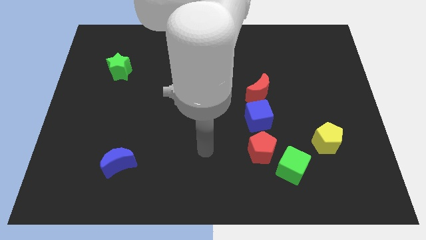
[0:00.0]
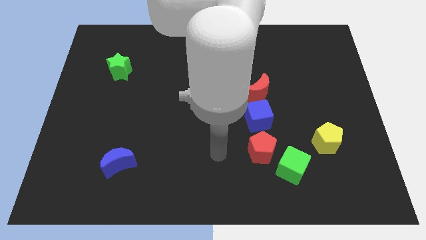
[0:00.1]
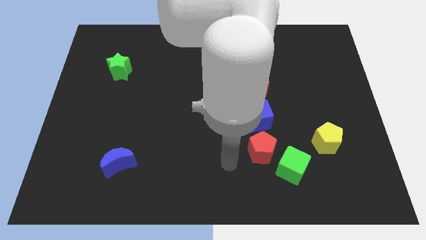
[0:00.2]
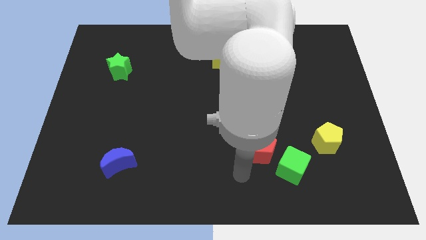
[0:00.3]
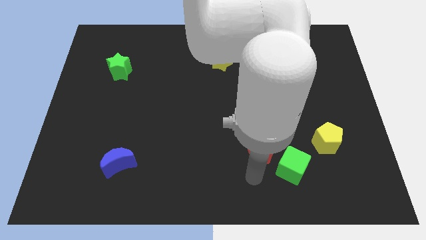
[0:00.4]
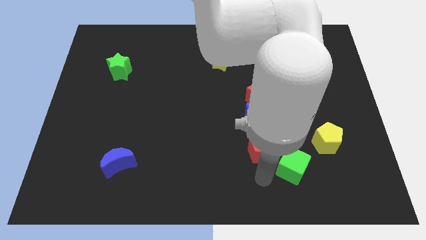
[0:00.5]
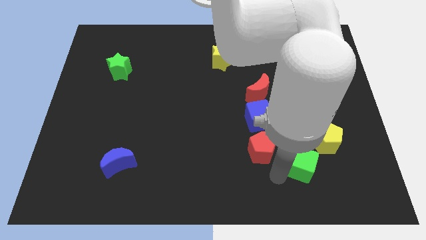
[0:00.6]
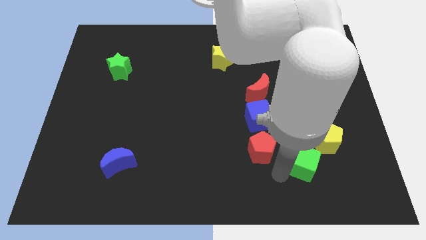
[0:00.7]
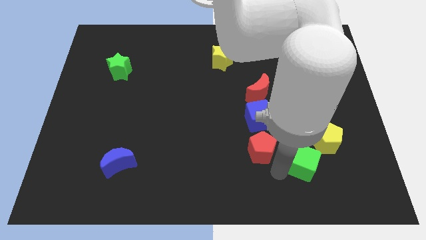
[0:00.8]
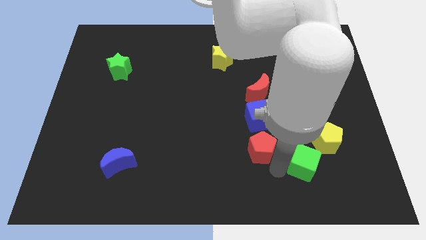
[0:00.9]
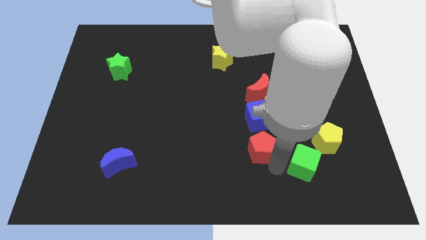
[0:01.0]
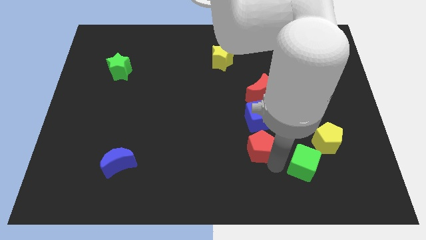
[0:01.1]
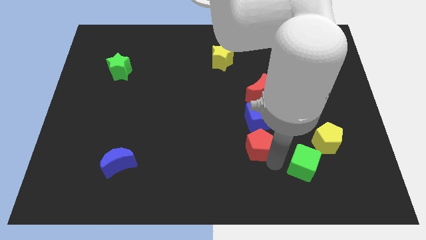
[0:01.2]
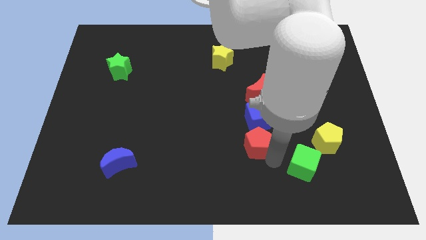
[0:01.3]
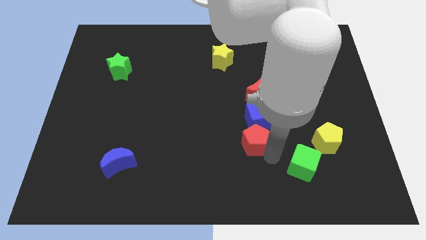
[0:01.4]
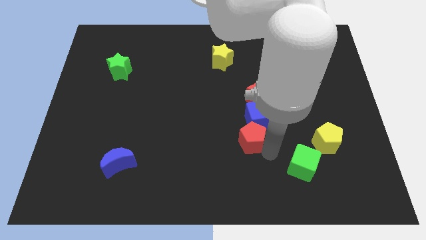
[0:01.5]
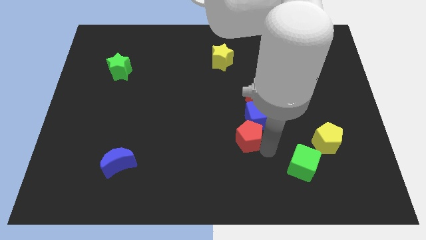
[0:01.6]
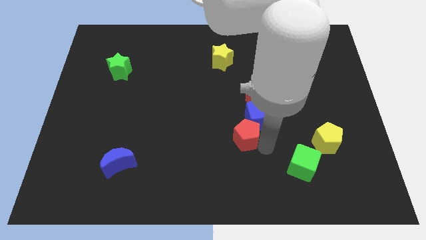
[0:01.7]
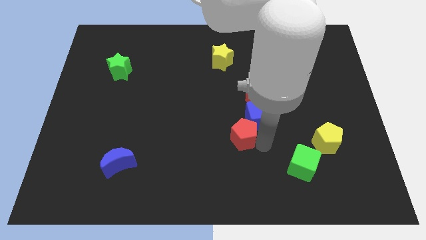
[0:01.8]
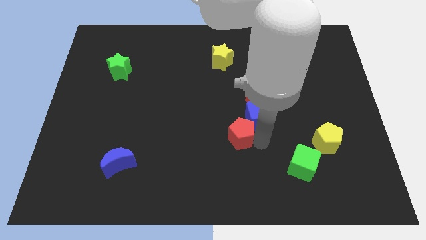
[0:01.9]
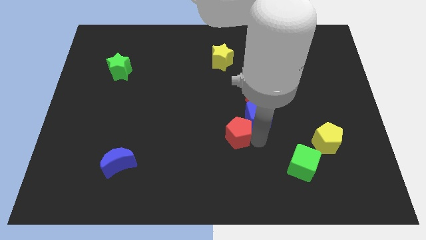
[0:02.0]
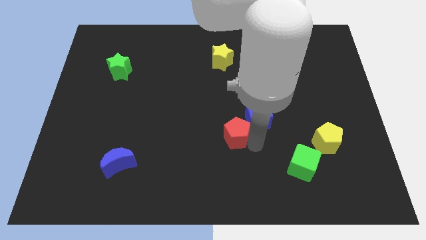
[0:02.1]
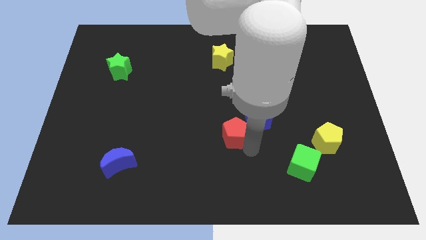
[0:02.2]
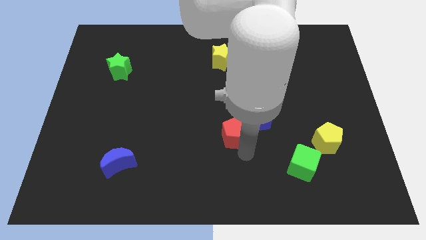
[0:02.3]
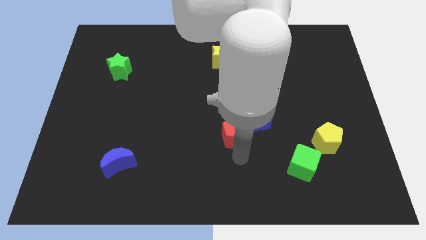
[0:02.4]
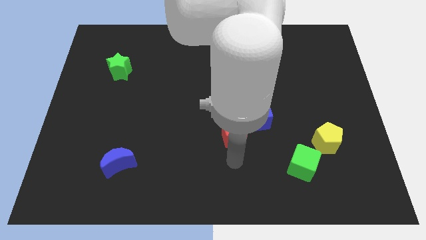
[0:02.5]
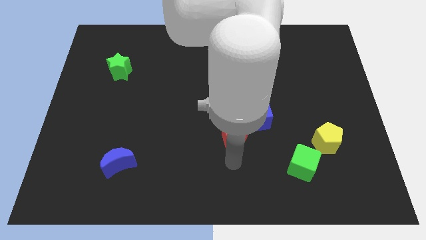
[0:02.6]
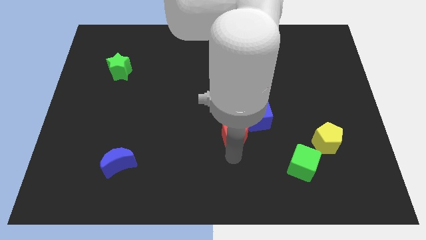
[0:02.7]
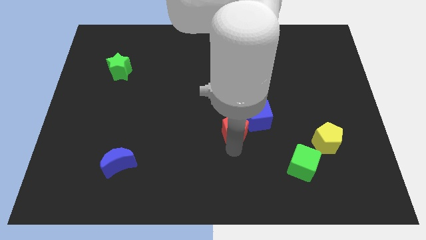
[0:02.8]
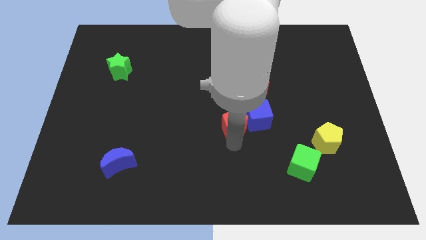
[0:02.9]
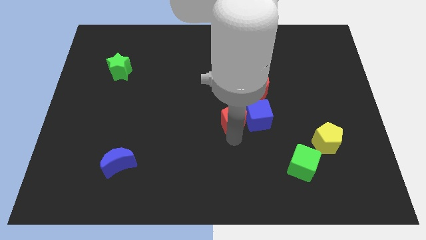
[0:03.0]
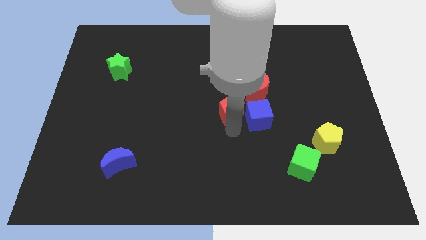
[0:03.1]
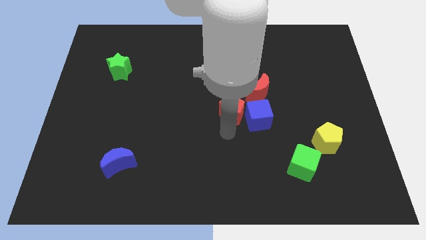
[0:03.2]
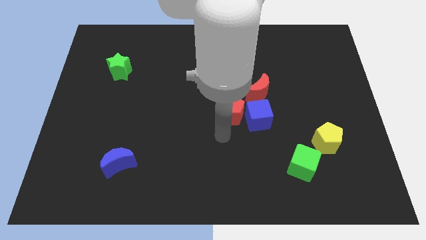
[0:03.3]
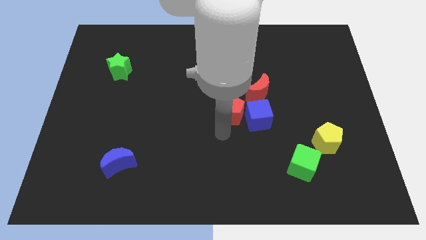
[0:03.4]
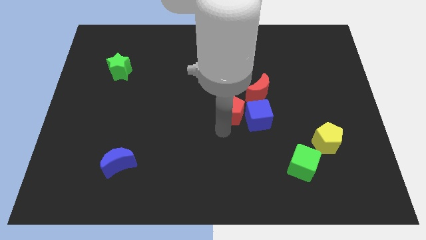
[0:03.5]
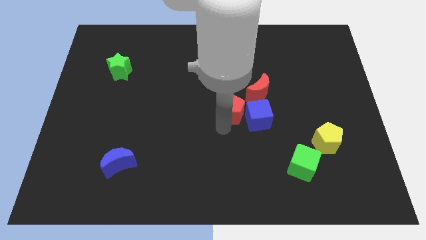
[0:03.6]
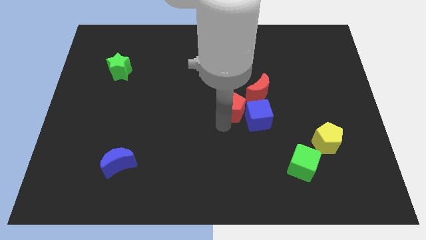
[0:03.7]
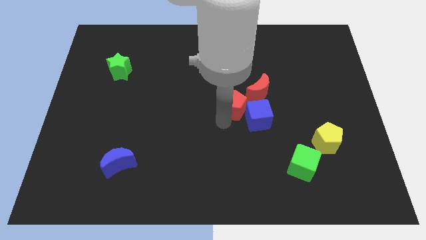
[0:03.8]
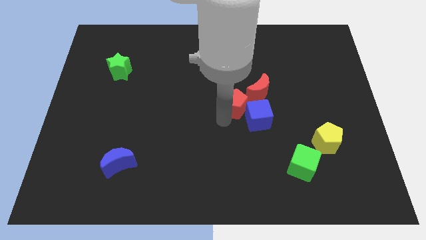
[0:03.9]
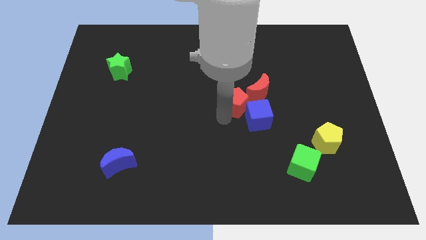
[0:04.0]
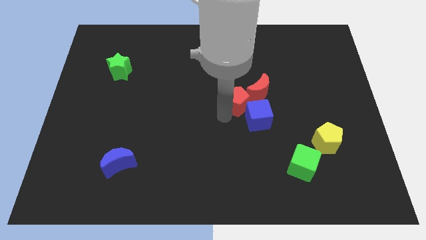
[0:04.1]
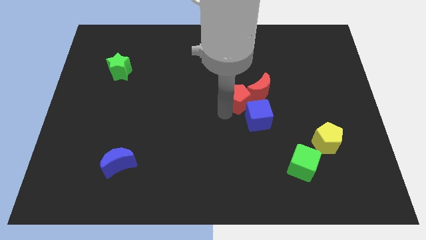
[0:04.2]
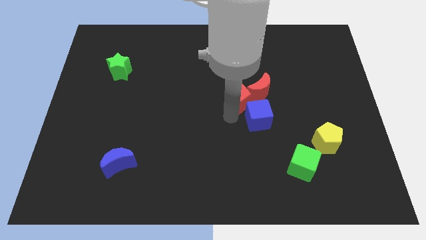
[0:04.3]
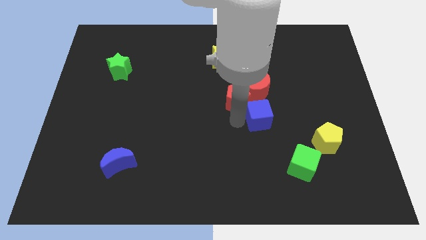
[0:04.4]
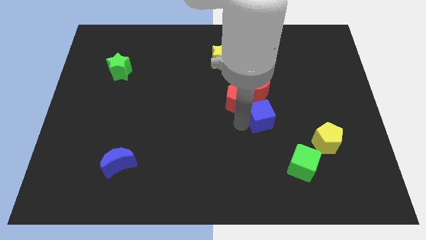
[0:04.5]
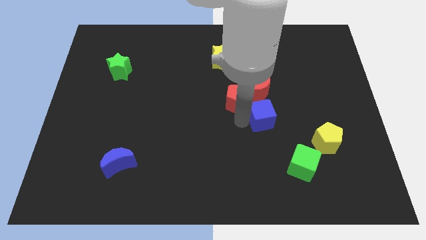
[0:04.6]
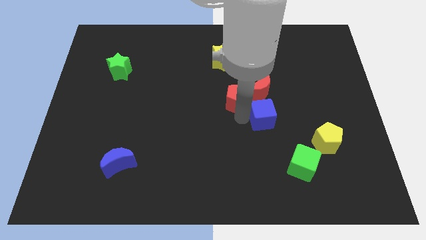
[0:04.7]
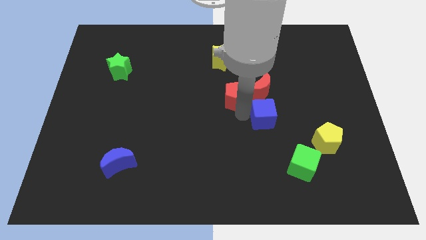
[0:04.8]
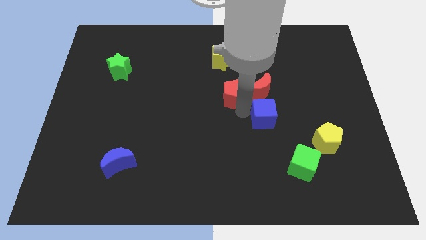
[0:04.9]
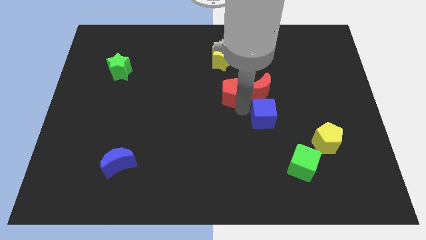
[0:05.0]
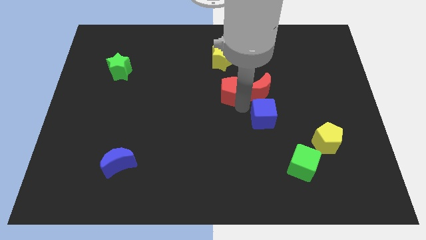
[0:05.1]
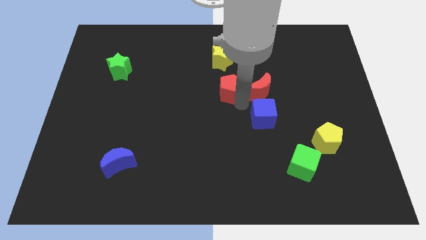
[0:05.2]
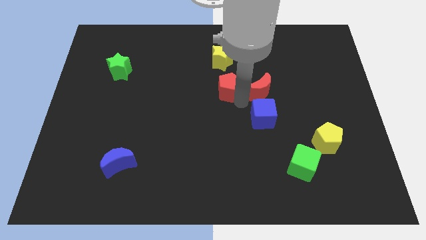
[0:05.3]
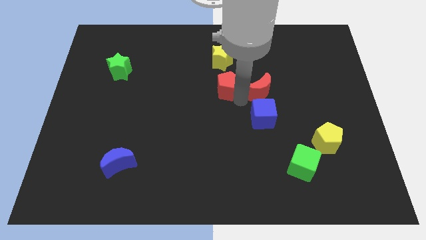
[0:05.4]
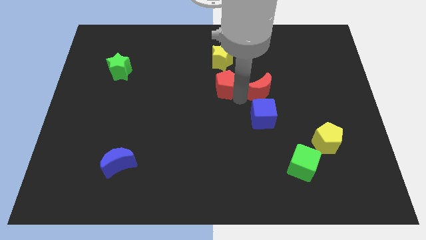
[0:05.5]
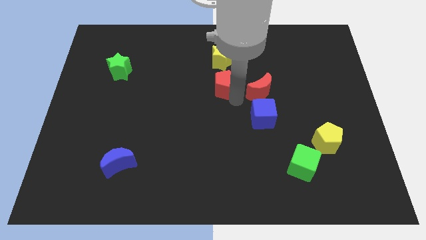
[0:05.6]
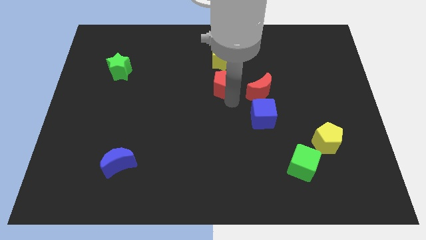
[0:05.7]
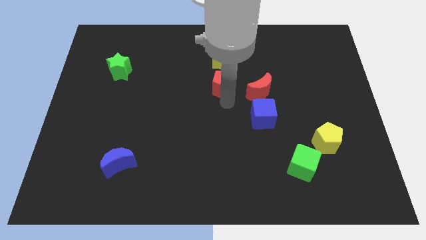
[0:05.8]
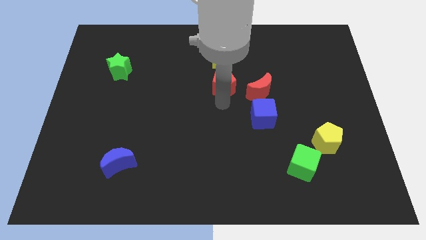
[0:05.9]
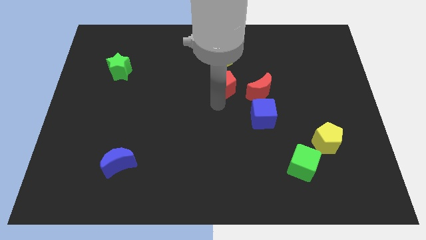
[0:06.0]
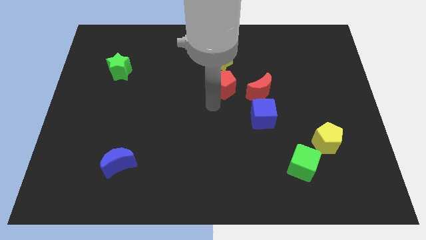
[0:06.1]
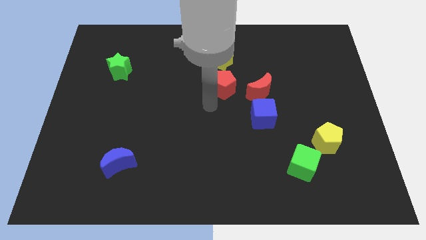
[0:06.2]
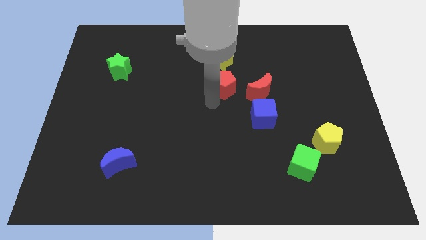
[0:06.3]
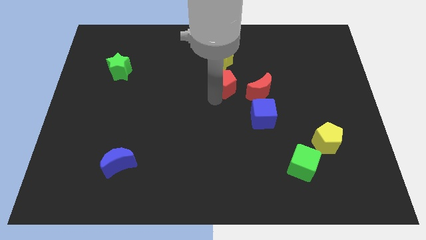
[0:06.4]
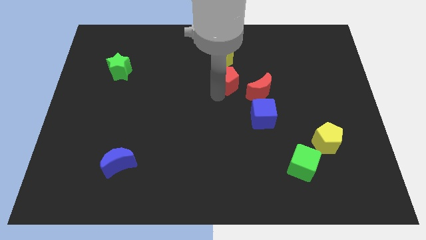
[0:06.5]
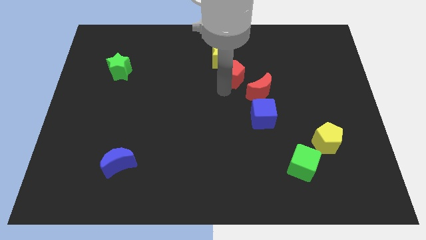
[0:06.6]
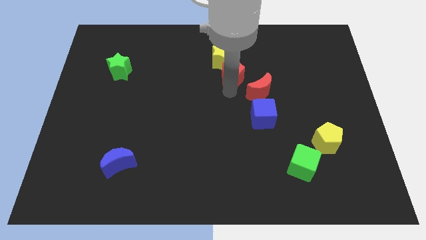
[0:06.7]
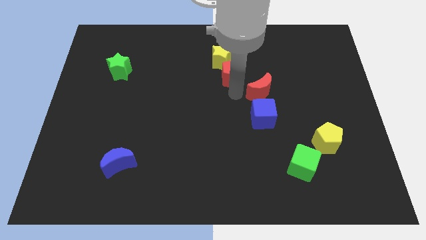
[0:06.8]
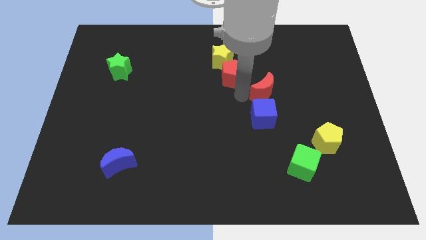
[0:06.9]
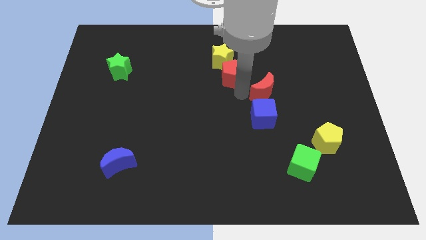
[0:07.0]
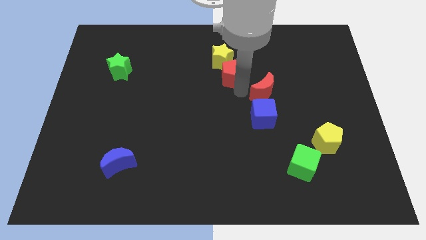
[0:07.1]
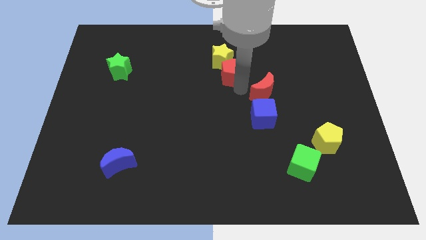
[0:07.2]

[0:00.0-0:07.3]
put the red pentagon next to the yellow star

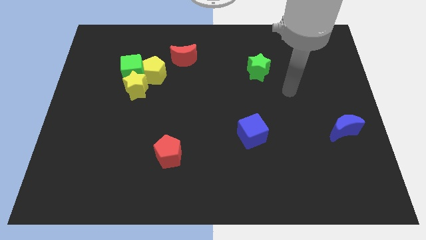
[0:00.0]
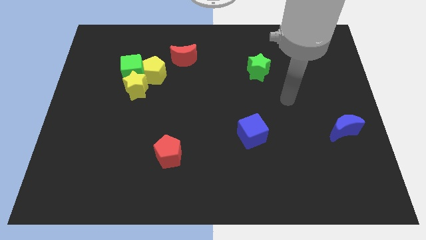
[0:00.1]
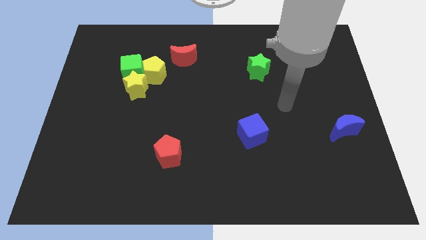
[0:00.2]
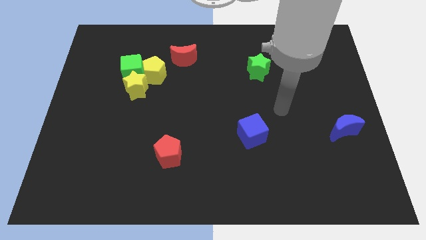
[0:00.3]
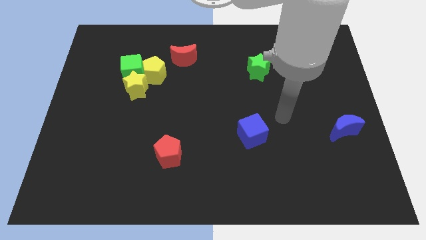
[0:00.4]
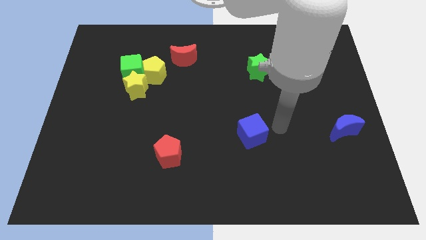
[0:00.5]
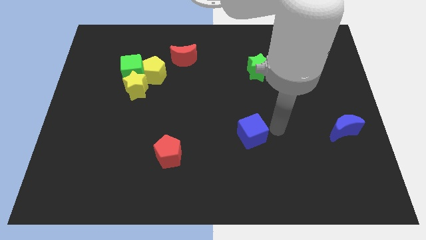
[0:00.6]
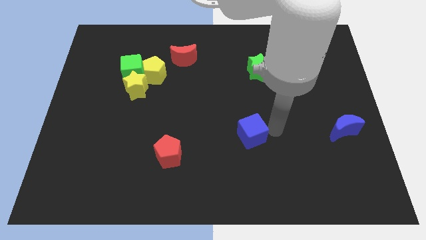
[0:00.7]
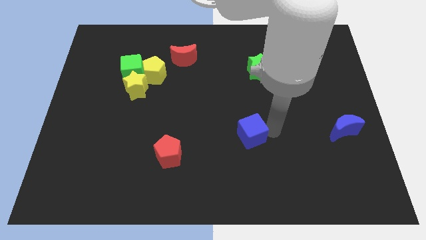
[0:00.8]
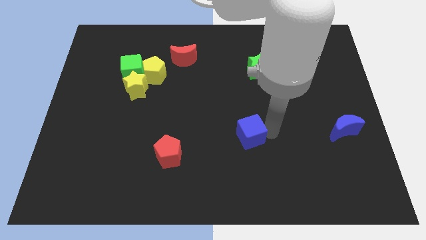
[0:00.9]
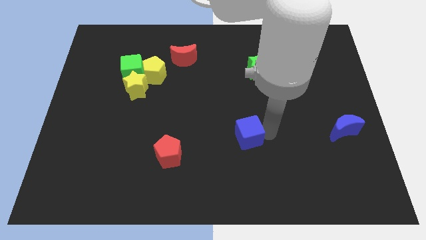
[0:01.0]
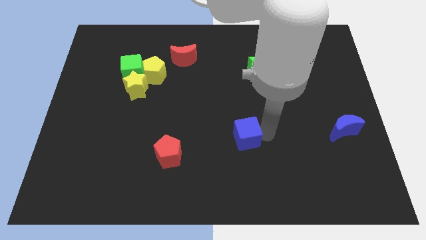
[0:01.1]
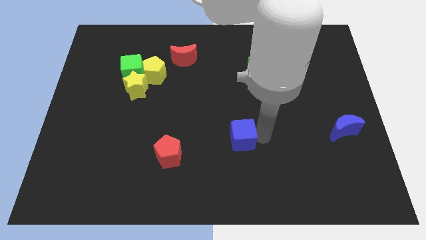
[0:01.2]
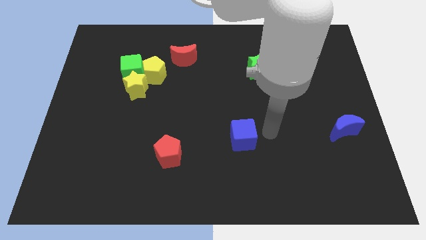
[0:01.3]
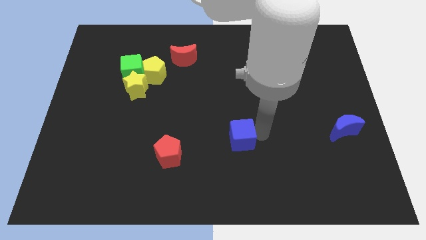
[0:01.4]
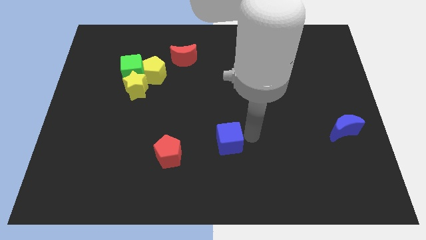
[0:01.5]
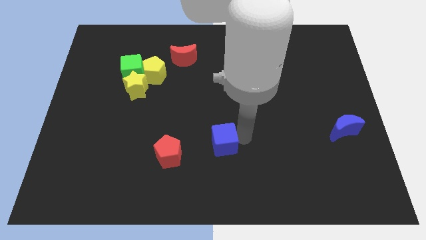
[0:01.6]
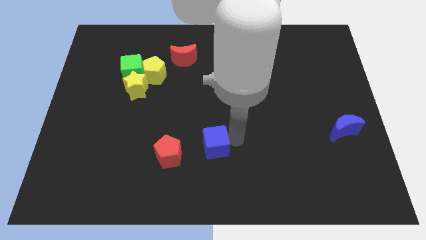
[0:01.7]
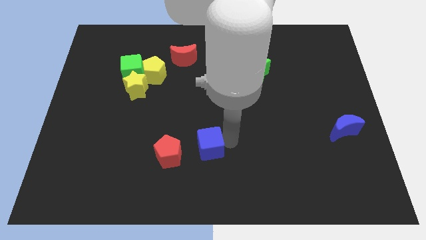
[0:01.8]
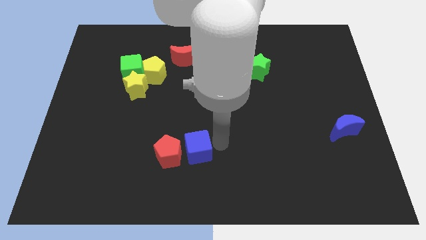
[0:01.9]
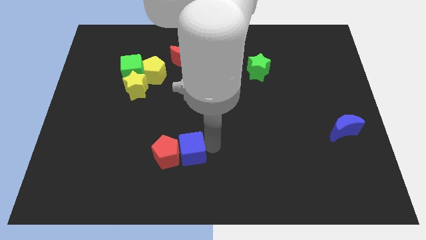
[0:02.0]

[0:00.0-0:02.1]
push the blue cube next to the red pentagon
